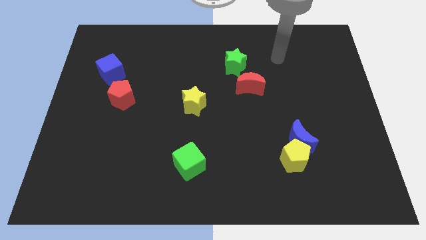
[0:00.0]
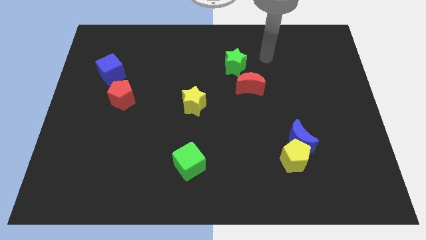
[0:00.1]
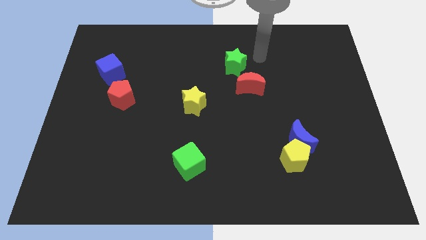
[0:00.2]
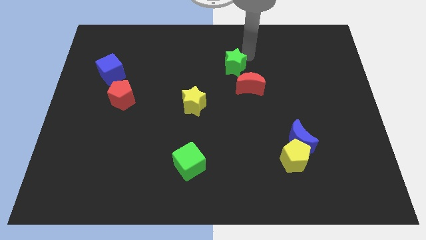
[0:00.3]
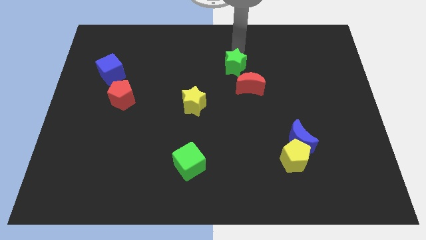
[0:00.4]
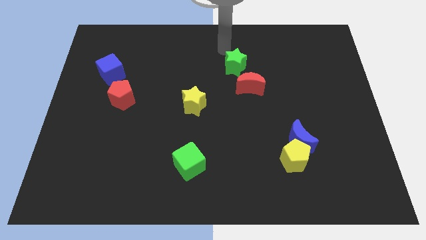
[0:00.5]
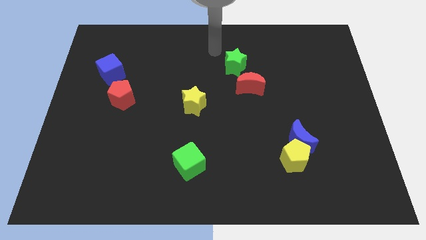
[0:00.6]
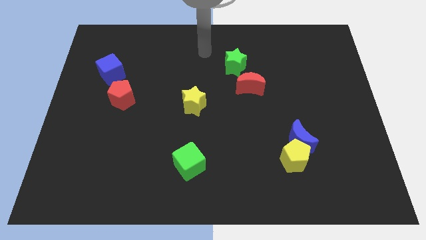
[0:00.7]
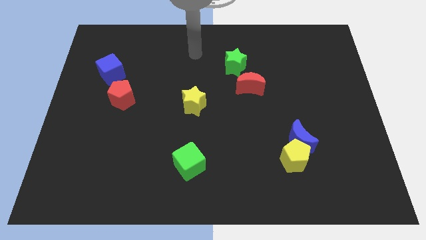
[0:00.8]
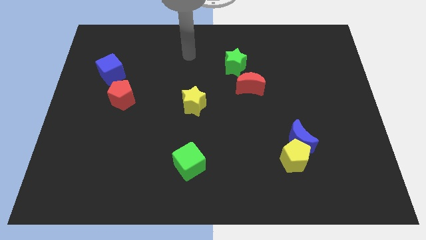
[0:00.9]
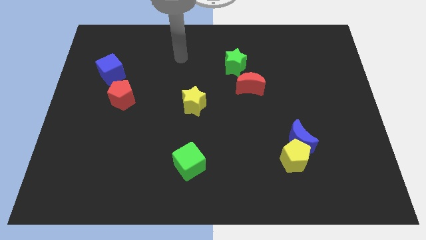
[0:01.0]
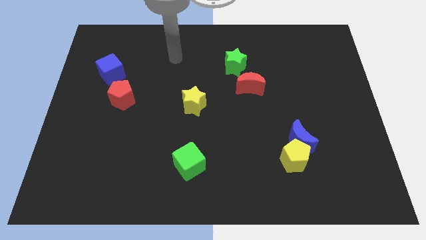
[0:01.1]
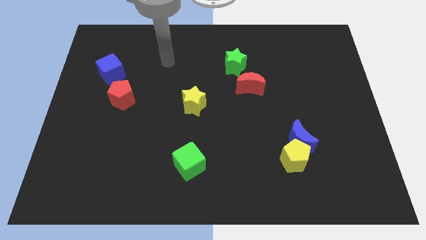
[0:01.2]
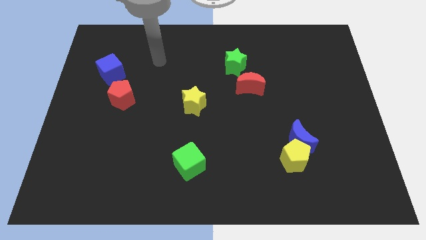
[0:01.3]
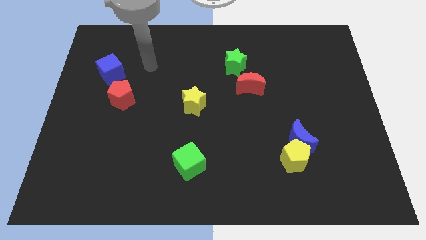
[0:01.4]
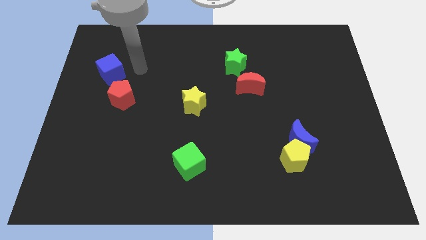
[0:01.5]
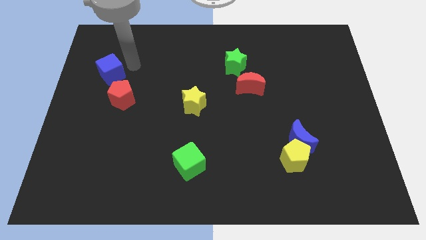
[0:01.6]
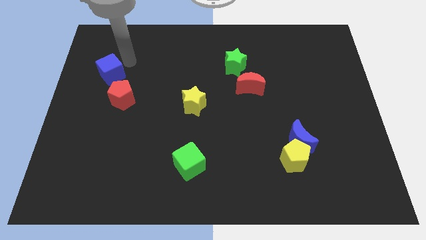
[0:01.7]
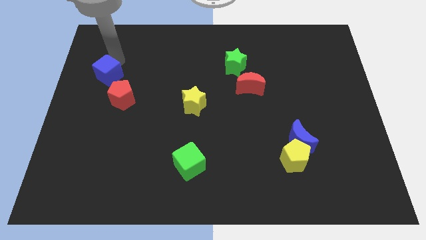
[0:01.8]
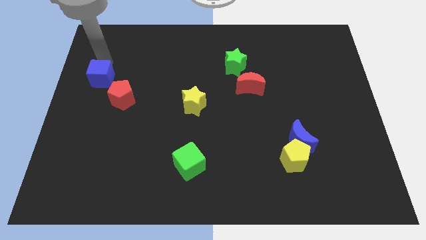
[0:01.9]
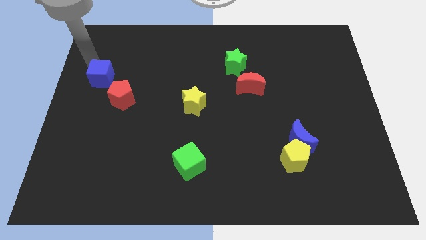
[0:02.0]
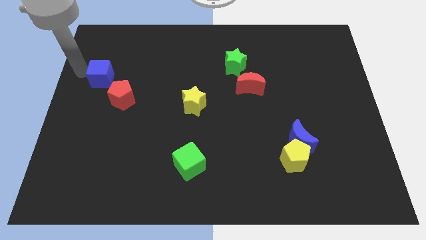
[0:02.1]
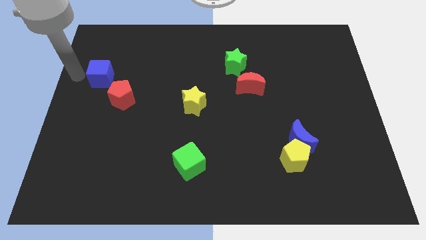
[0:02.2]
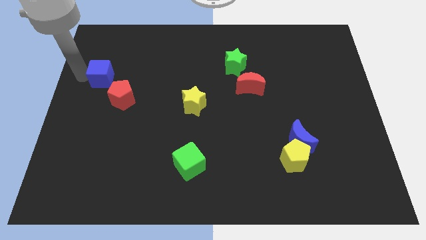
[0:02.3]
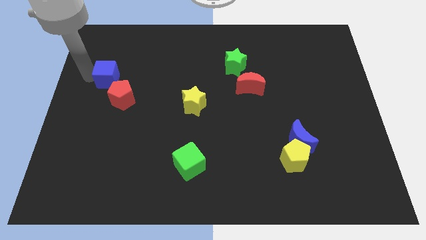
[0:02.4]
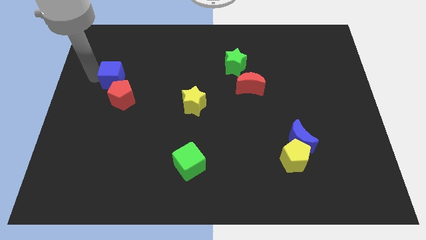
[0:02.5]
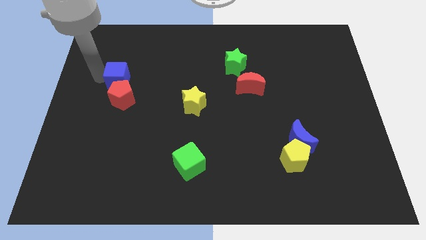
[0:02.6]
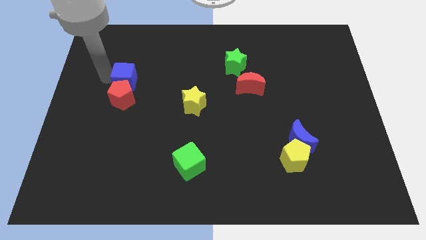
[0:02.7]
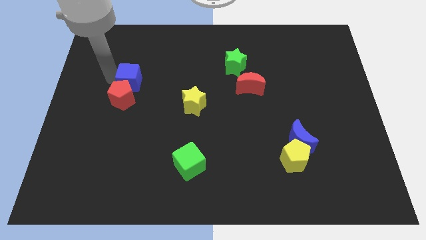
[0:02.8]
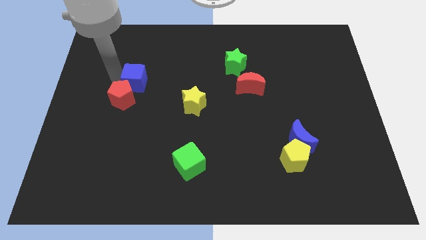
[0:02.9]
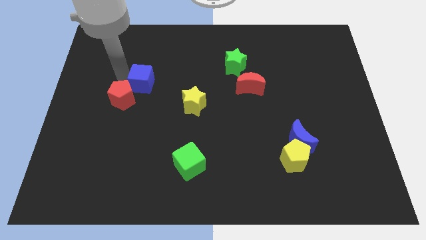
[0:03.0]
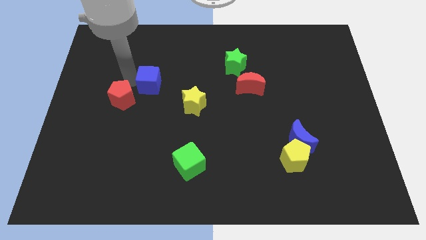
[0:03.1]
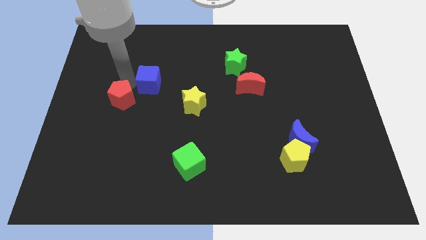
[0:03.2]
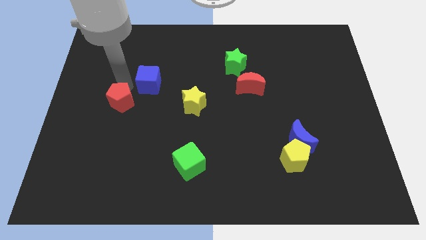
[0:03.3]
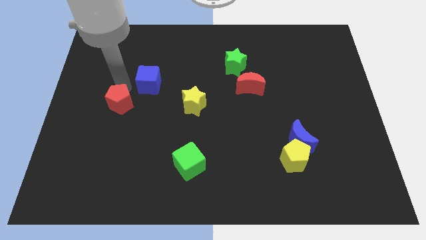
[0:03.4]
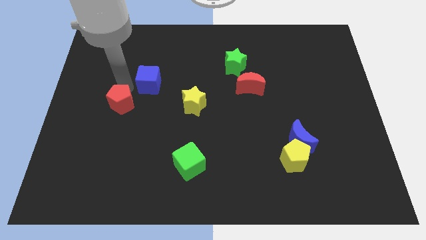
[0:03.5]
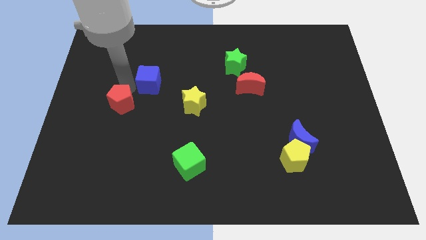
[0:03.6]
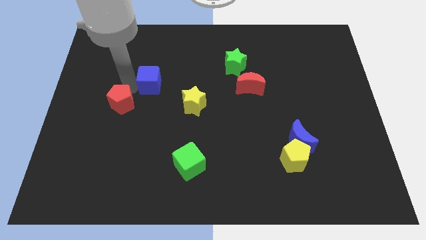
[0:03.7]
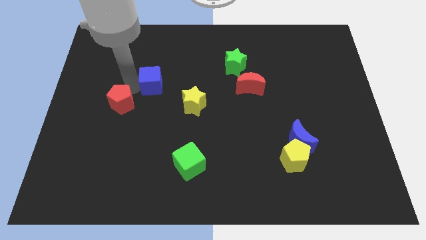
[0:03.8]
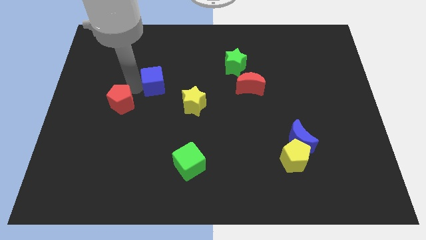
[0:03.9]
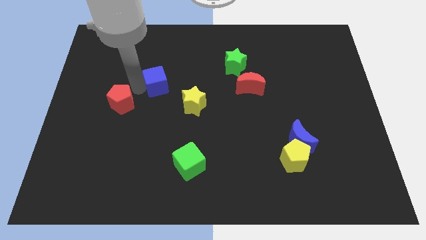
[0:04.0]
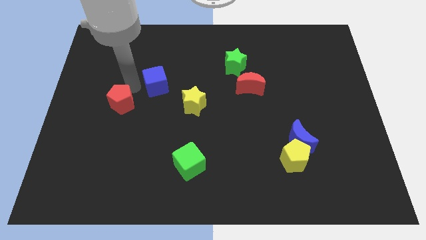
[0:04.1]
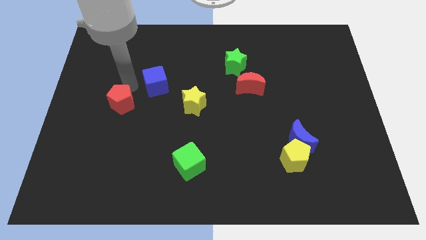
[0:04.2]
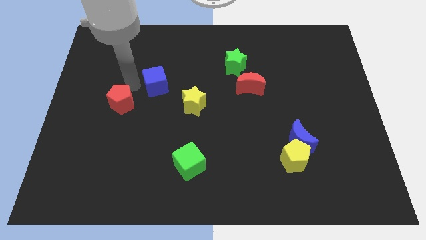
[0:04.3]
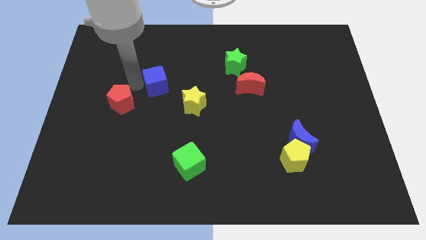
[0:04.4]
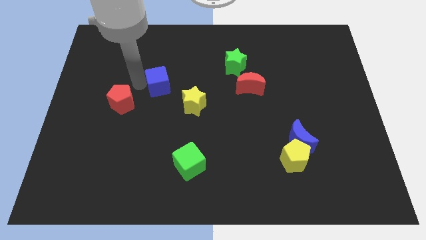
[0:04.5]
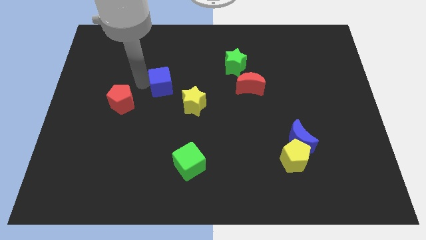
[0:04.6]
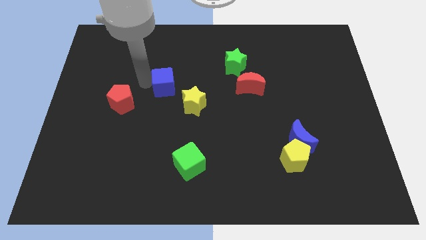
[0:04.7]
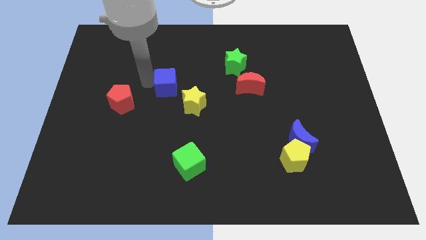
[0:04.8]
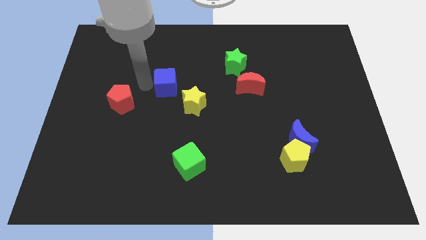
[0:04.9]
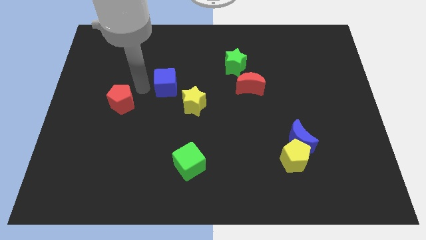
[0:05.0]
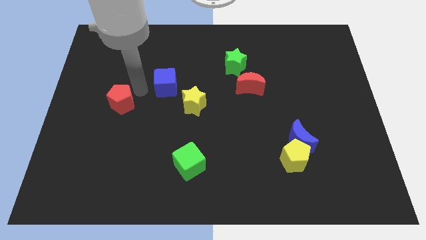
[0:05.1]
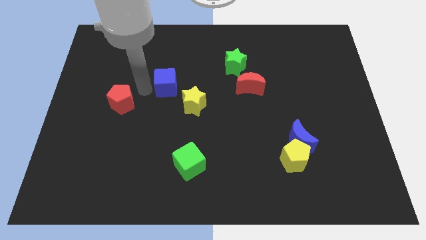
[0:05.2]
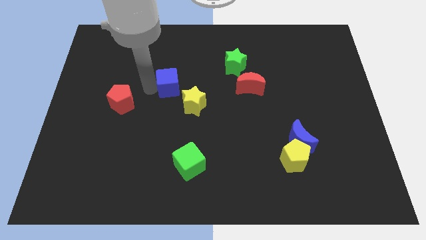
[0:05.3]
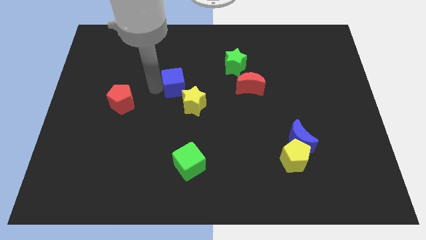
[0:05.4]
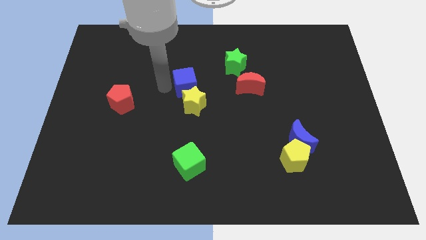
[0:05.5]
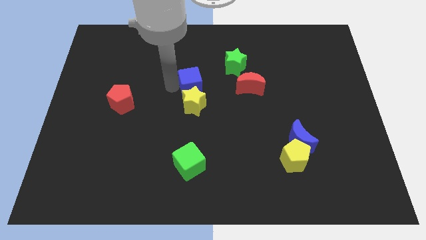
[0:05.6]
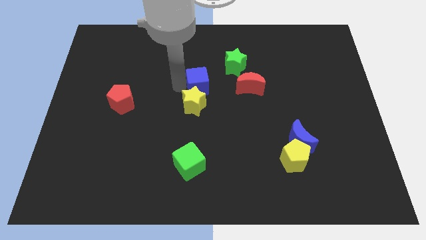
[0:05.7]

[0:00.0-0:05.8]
move the blue cube to the bottom left side of the green star

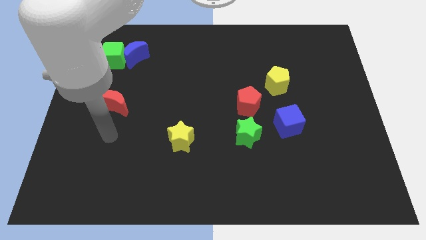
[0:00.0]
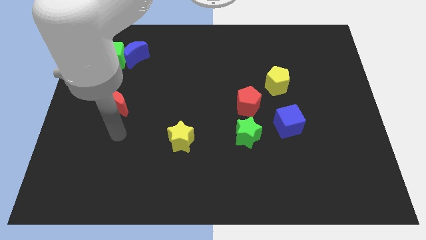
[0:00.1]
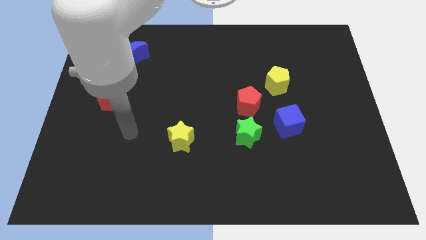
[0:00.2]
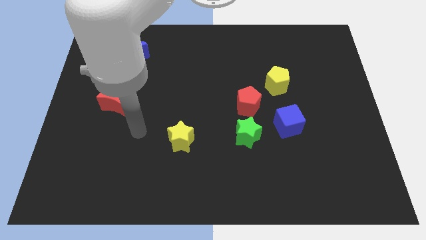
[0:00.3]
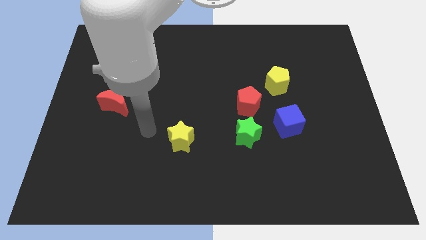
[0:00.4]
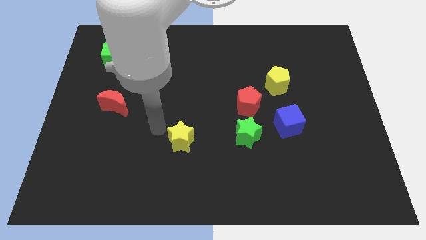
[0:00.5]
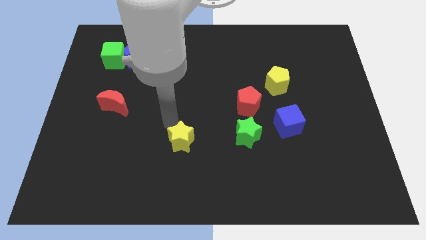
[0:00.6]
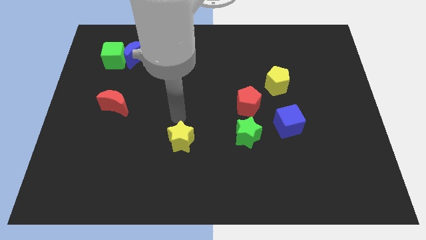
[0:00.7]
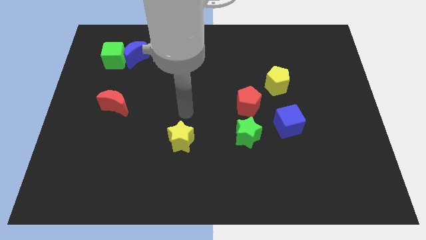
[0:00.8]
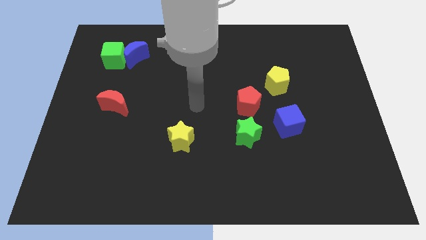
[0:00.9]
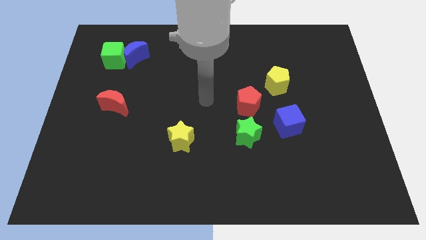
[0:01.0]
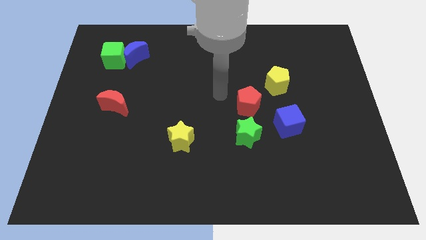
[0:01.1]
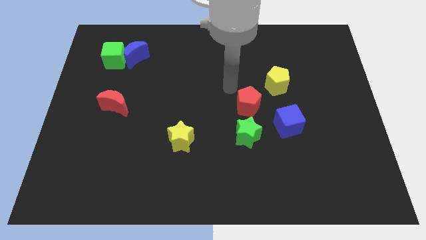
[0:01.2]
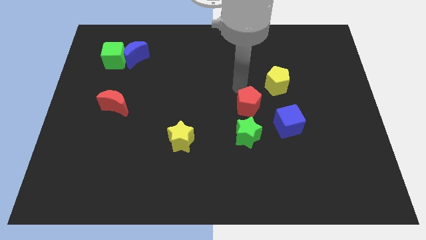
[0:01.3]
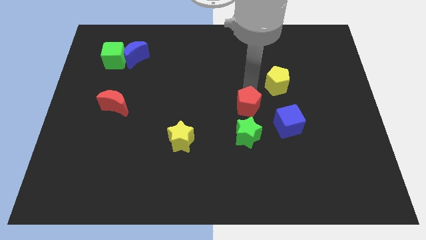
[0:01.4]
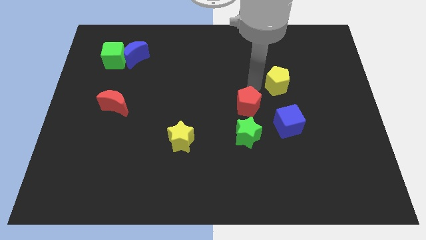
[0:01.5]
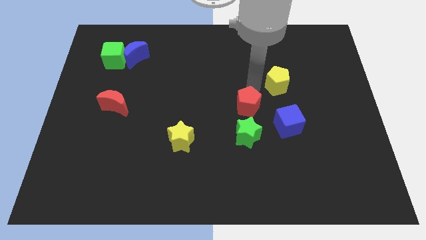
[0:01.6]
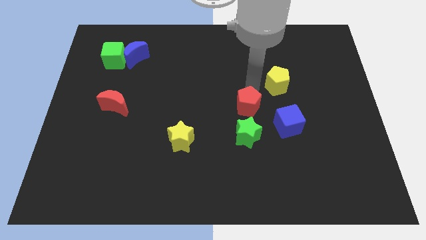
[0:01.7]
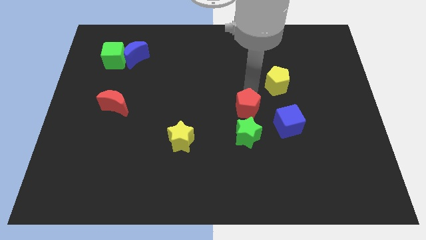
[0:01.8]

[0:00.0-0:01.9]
put the red pentagon just left of the blue cube
